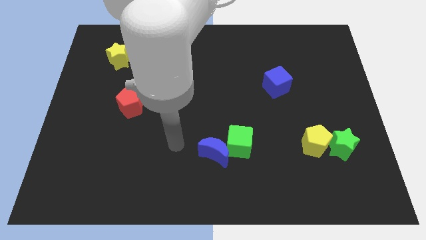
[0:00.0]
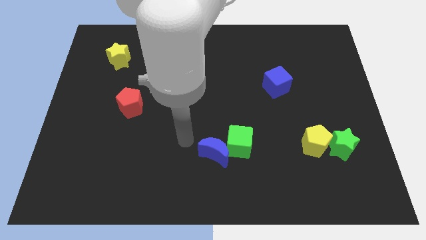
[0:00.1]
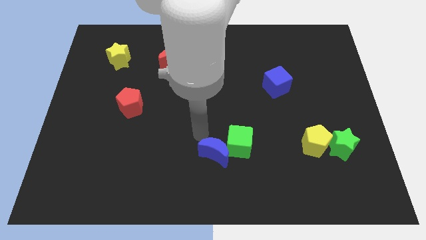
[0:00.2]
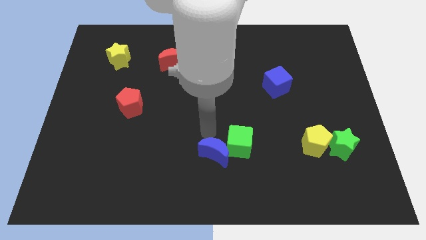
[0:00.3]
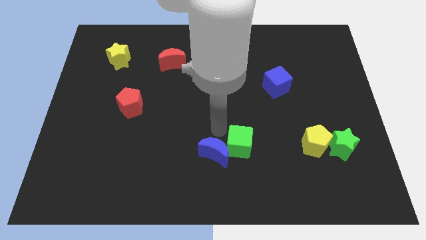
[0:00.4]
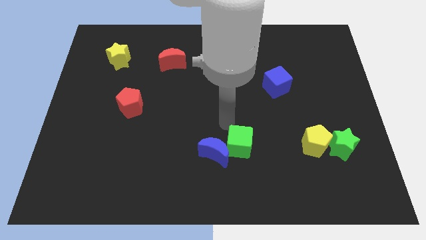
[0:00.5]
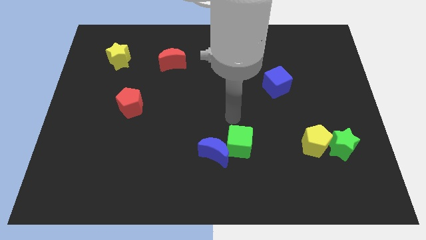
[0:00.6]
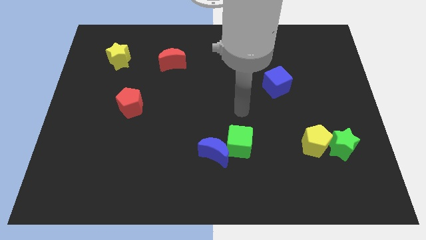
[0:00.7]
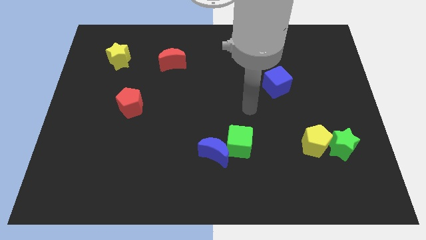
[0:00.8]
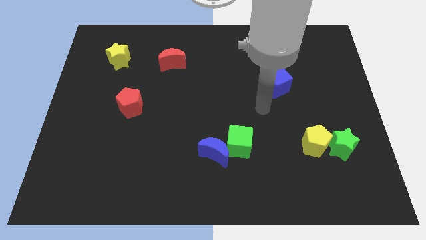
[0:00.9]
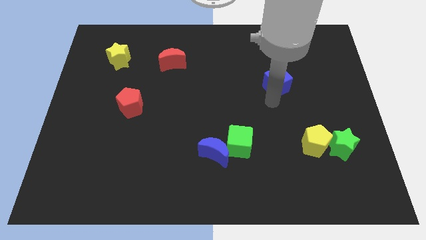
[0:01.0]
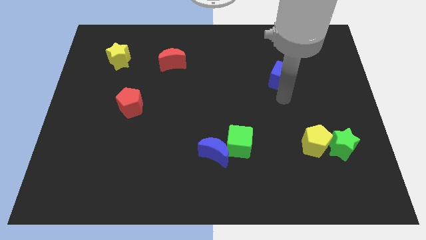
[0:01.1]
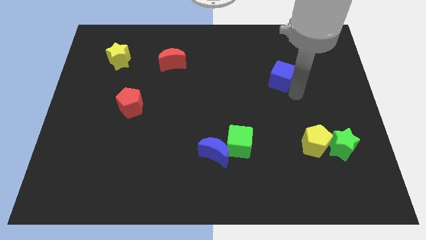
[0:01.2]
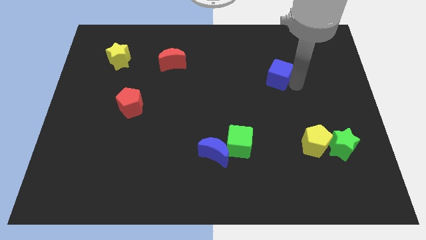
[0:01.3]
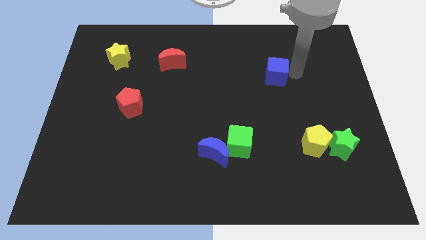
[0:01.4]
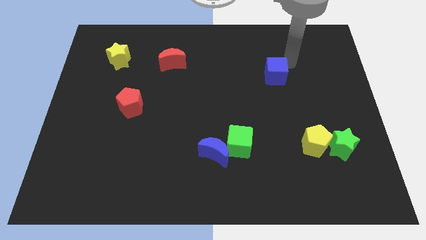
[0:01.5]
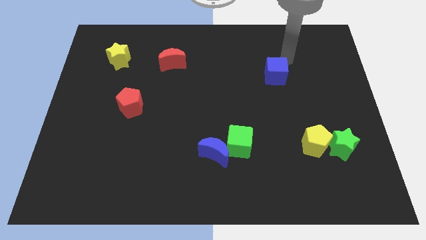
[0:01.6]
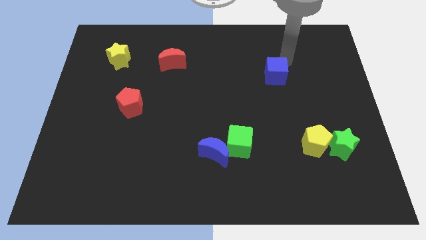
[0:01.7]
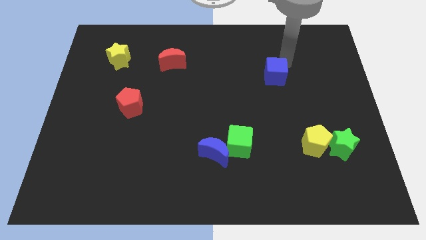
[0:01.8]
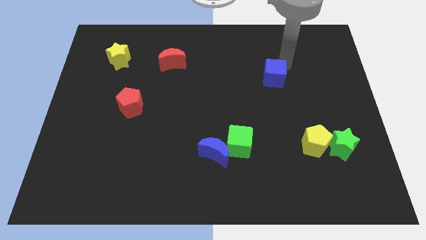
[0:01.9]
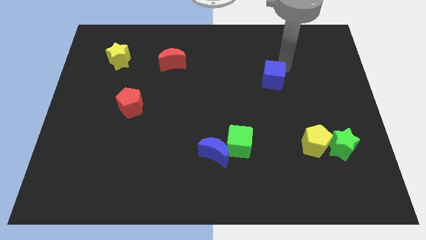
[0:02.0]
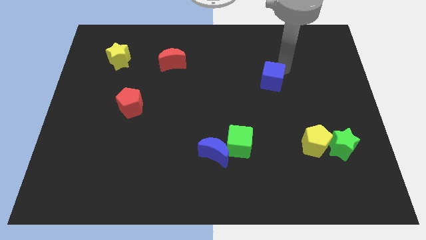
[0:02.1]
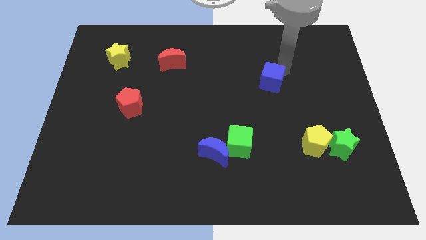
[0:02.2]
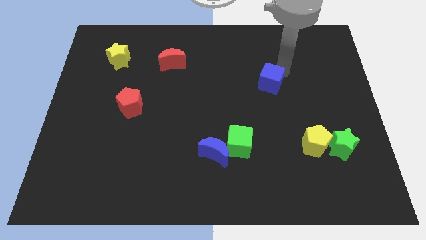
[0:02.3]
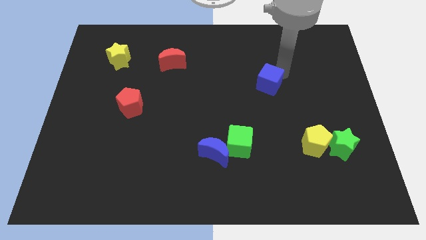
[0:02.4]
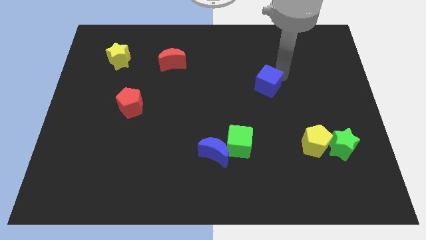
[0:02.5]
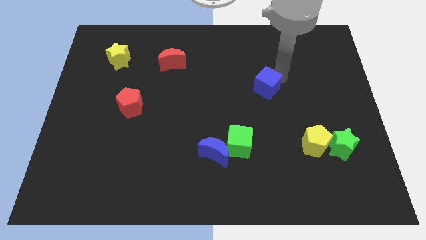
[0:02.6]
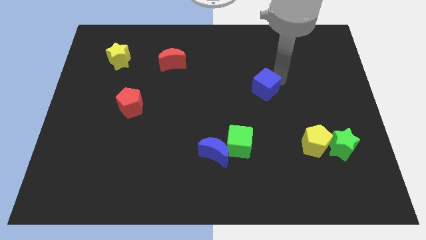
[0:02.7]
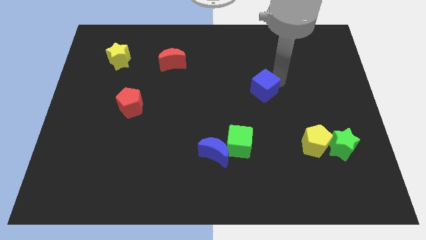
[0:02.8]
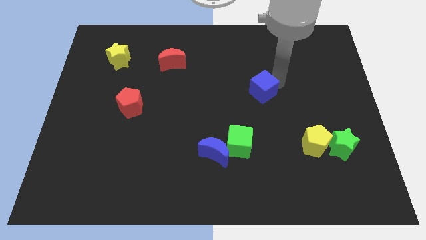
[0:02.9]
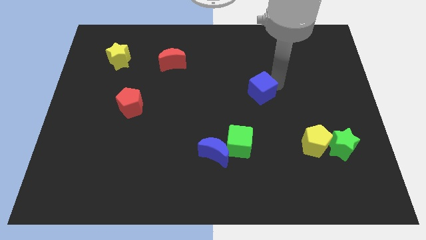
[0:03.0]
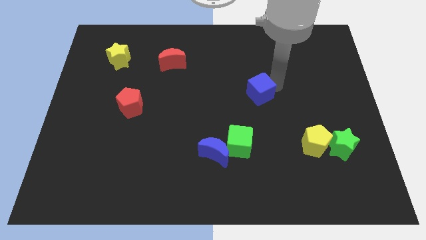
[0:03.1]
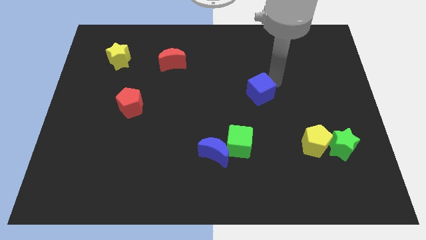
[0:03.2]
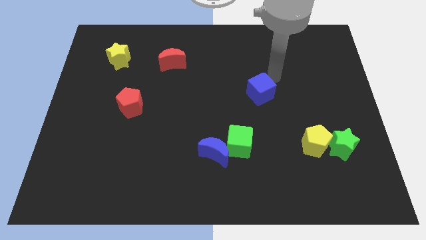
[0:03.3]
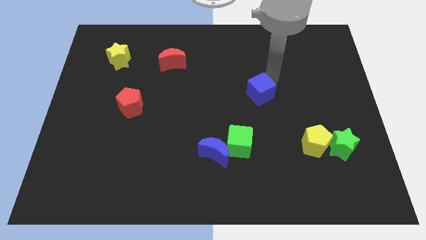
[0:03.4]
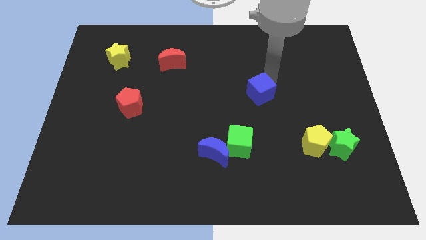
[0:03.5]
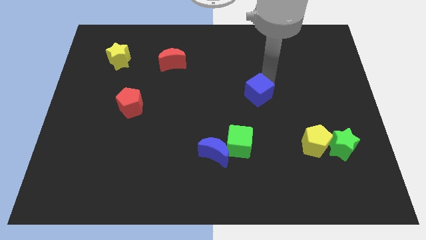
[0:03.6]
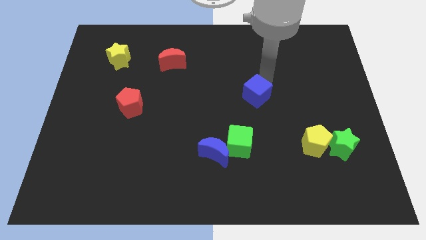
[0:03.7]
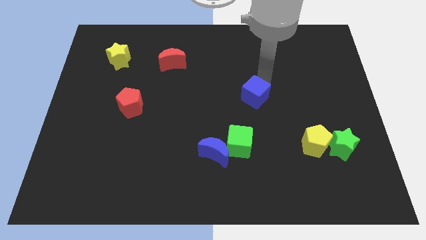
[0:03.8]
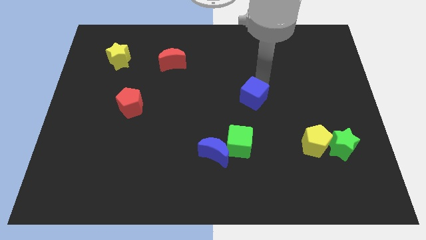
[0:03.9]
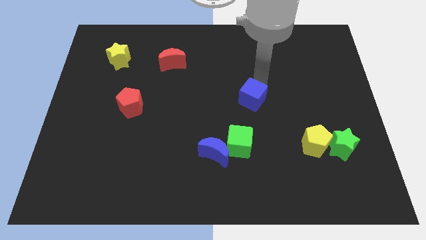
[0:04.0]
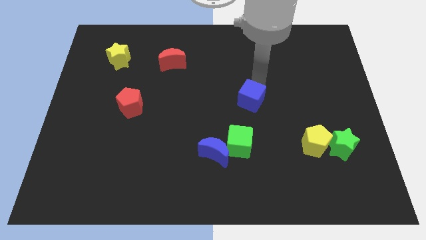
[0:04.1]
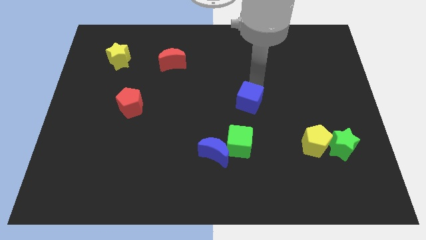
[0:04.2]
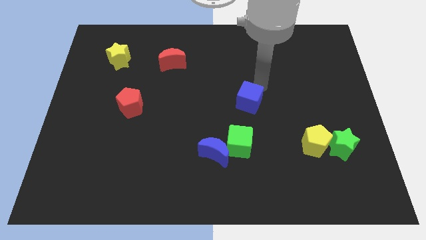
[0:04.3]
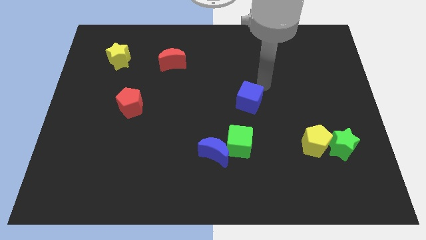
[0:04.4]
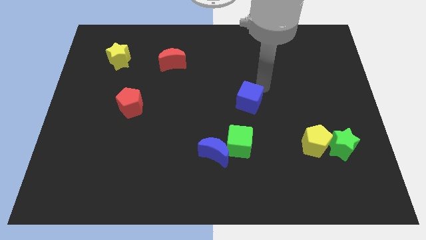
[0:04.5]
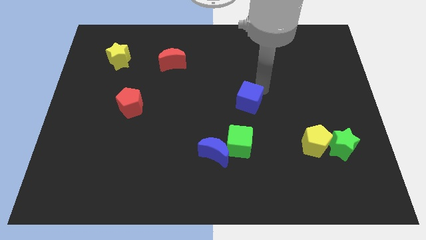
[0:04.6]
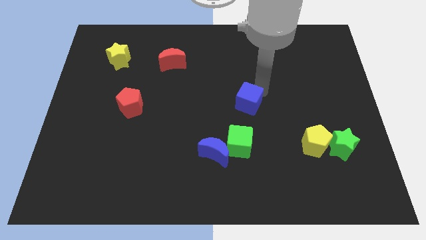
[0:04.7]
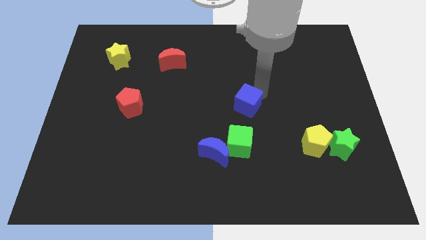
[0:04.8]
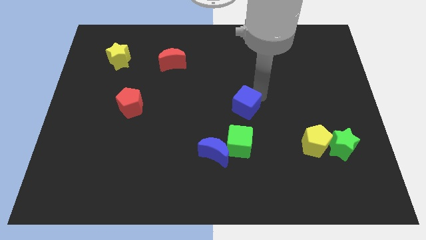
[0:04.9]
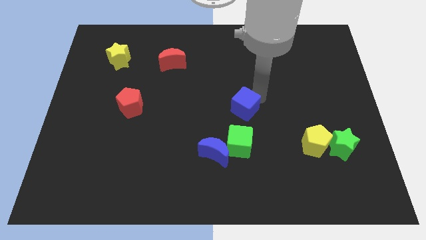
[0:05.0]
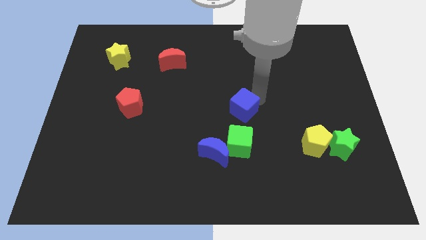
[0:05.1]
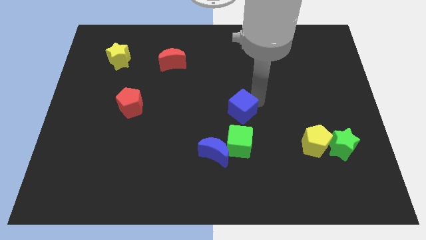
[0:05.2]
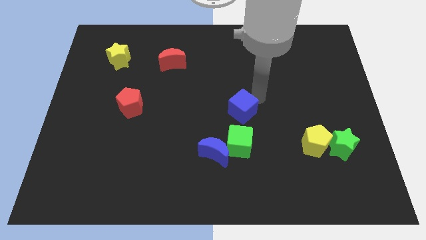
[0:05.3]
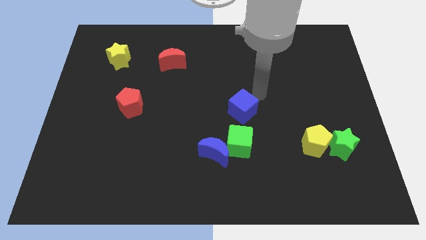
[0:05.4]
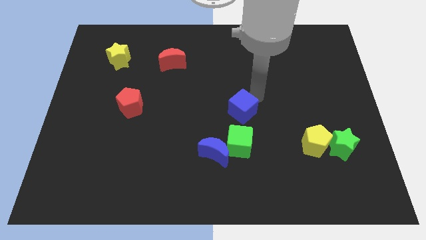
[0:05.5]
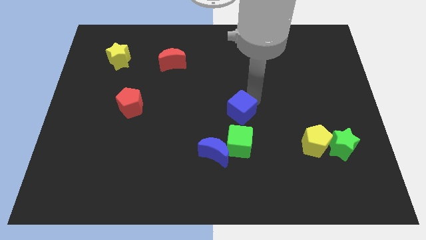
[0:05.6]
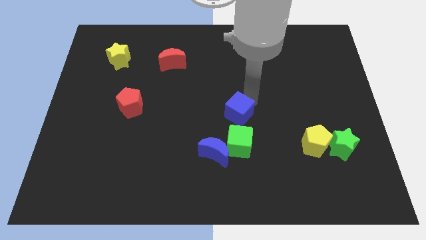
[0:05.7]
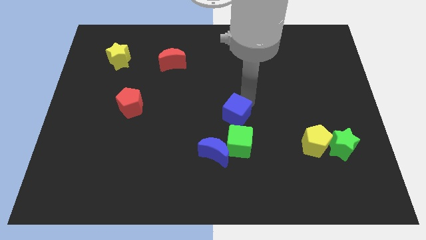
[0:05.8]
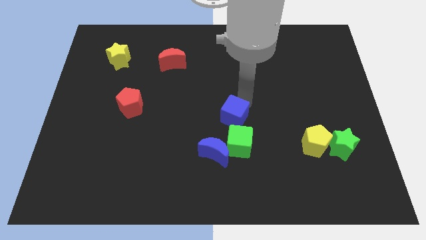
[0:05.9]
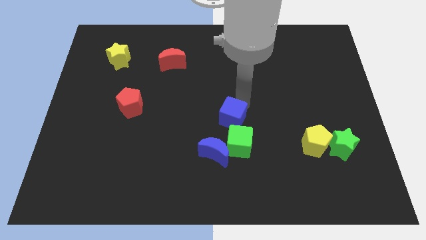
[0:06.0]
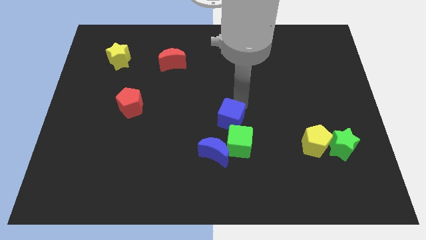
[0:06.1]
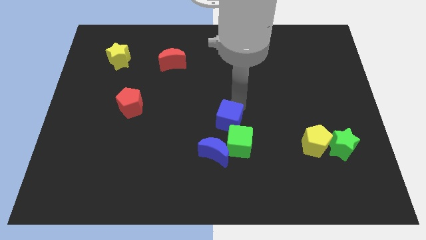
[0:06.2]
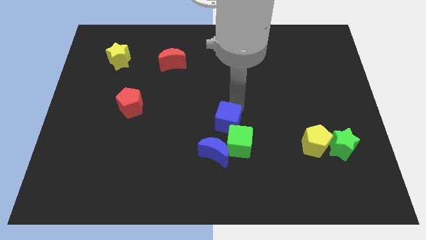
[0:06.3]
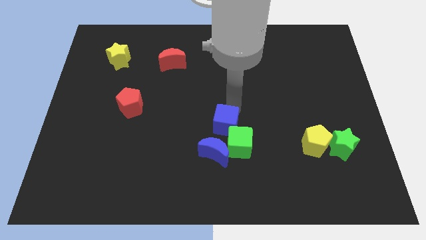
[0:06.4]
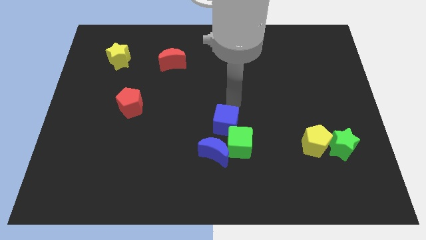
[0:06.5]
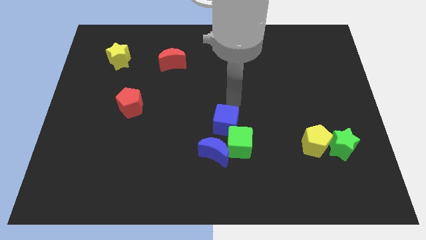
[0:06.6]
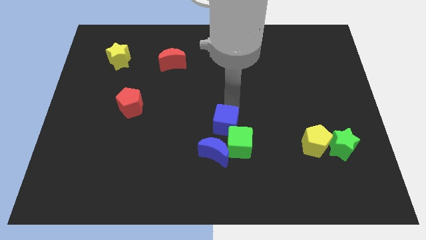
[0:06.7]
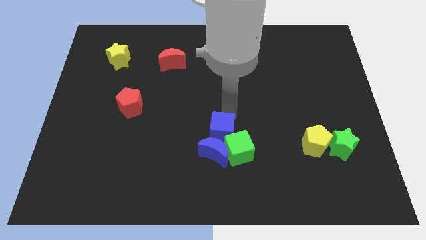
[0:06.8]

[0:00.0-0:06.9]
put the blue cube close to the blue moon
